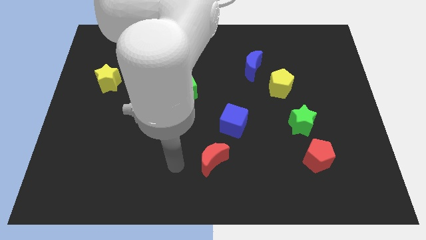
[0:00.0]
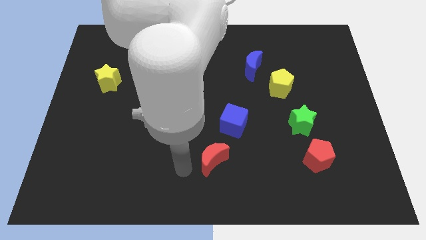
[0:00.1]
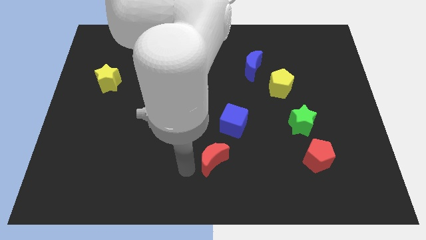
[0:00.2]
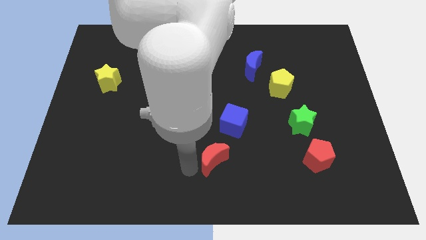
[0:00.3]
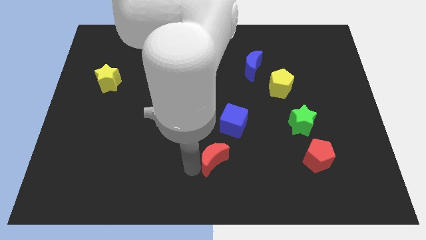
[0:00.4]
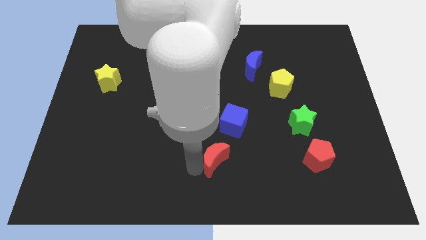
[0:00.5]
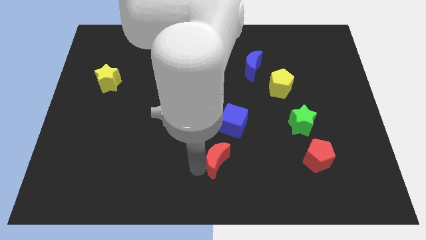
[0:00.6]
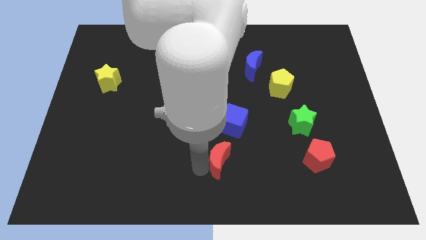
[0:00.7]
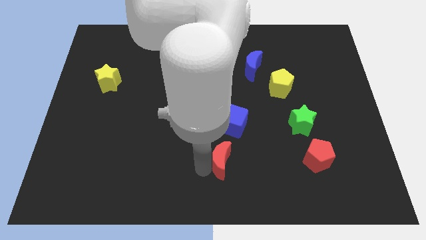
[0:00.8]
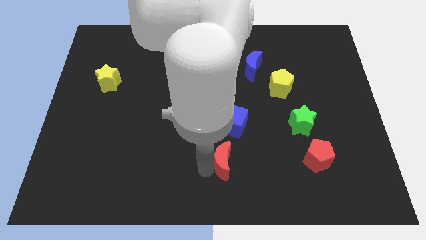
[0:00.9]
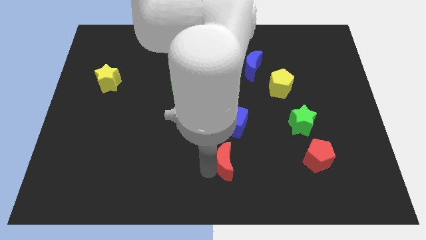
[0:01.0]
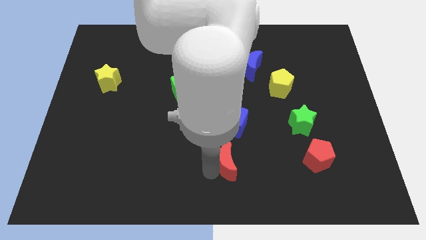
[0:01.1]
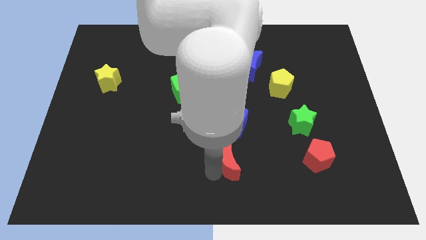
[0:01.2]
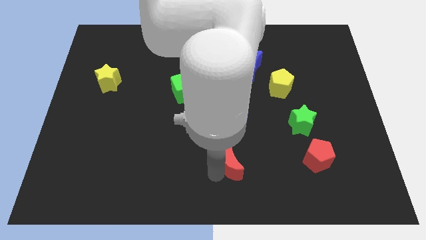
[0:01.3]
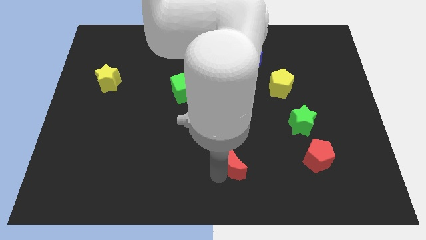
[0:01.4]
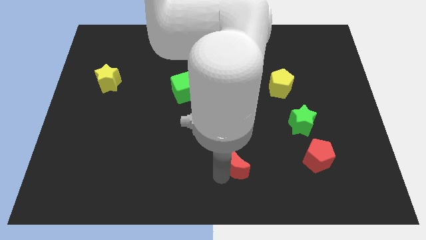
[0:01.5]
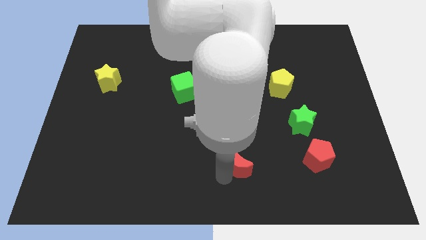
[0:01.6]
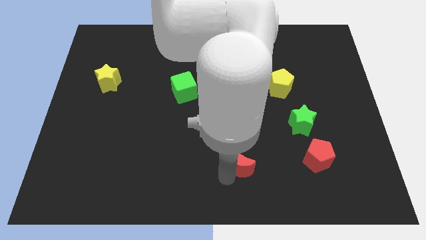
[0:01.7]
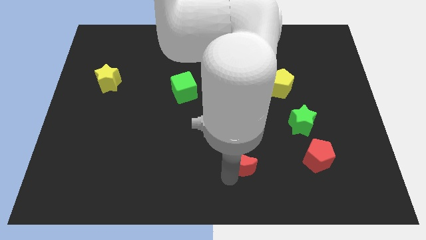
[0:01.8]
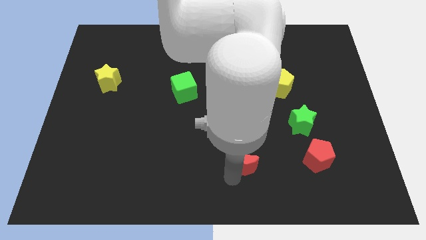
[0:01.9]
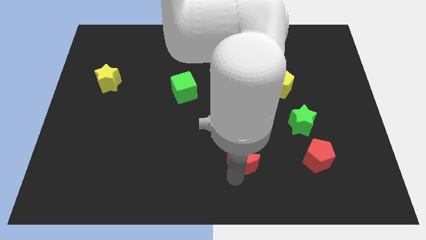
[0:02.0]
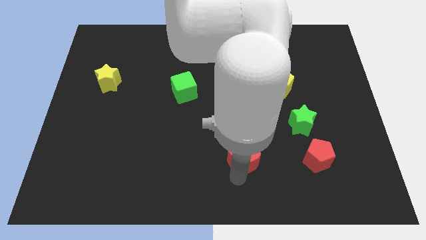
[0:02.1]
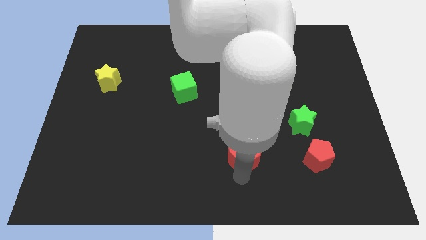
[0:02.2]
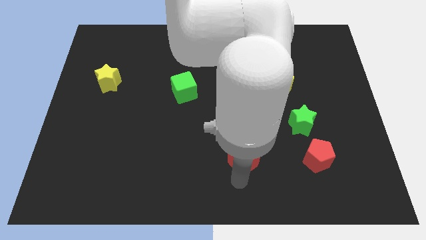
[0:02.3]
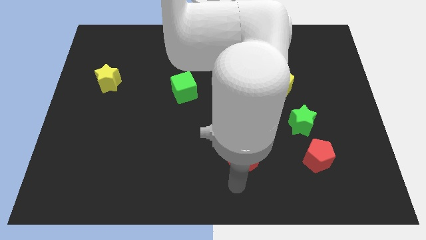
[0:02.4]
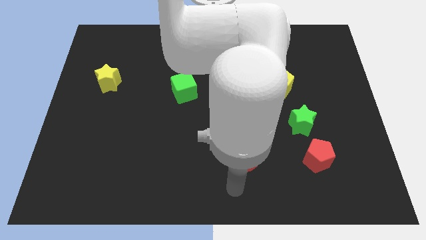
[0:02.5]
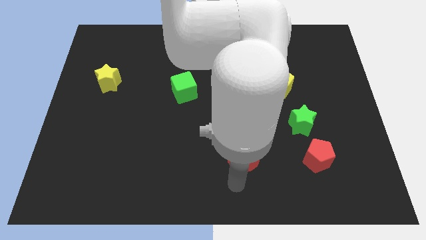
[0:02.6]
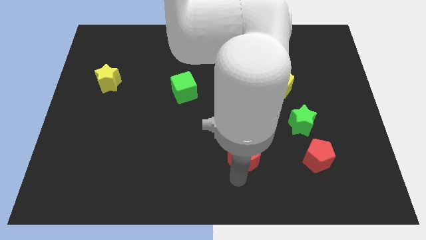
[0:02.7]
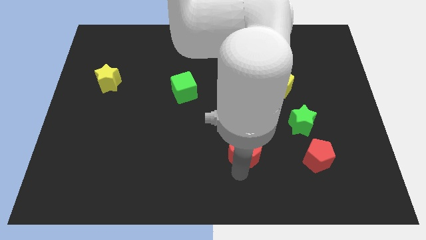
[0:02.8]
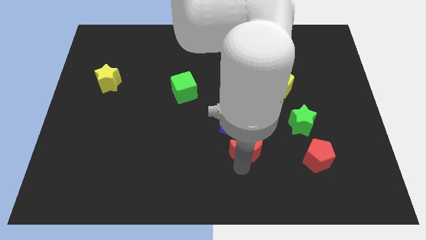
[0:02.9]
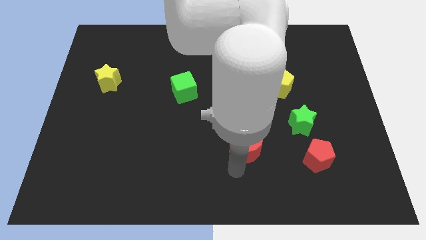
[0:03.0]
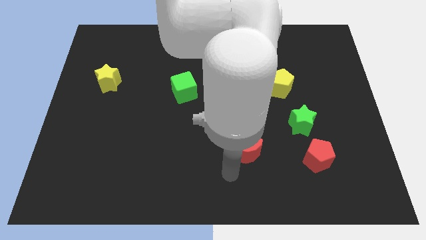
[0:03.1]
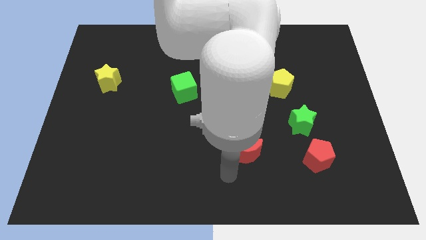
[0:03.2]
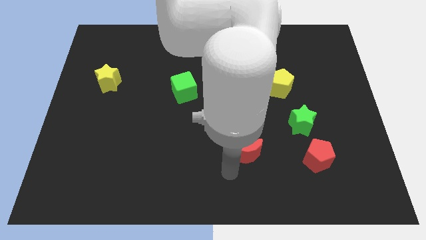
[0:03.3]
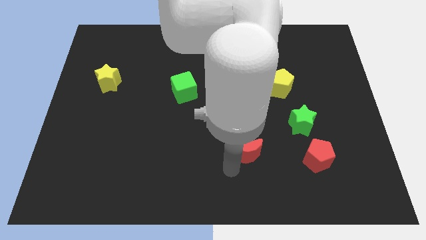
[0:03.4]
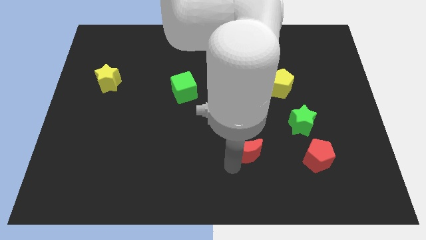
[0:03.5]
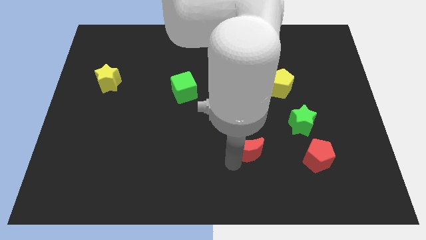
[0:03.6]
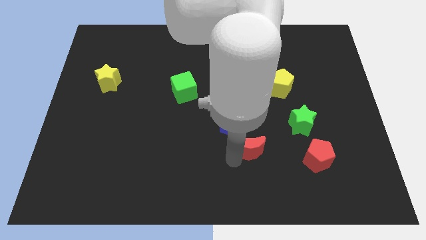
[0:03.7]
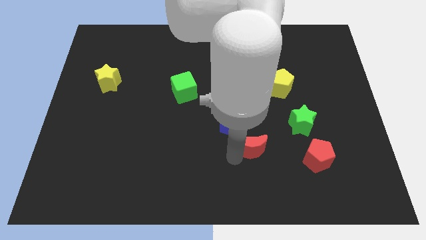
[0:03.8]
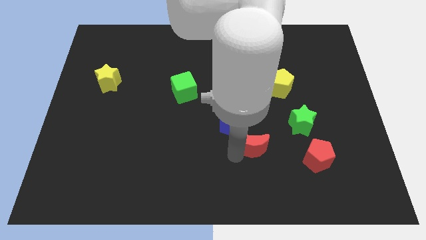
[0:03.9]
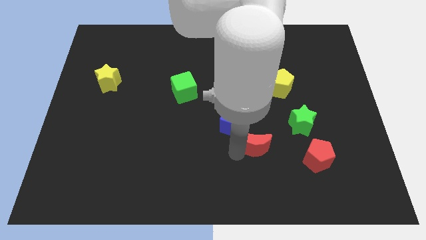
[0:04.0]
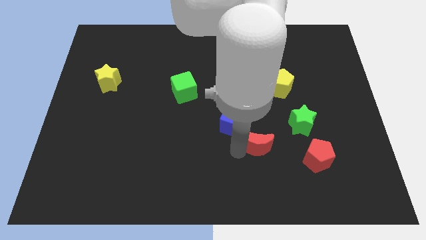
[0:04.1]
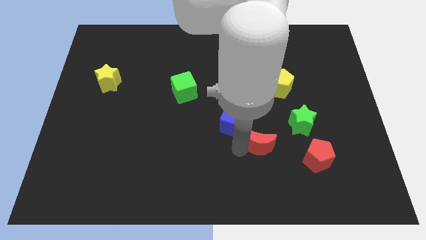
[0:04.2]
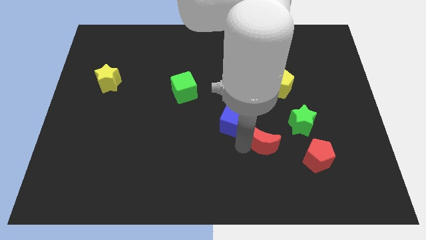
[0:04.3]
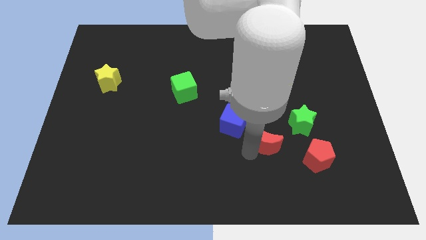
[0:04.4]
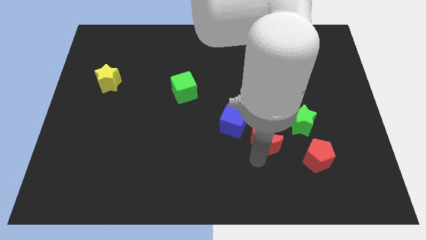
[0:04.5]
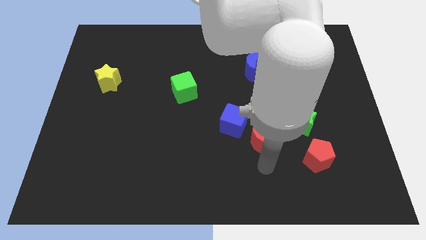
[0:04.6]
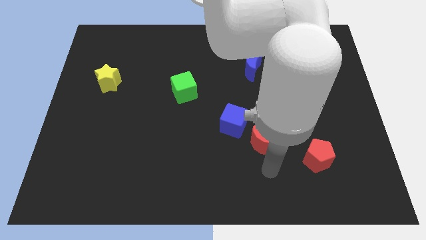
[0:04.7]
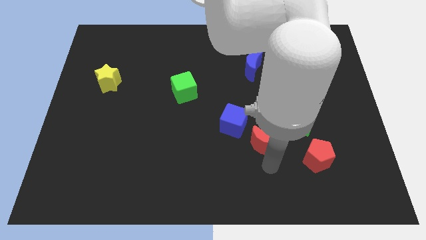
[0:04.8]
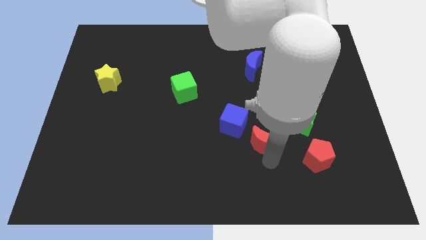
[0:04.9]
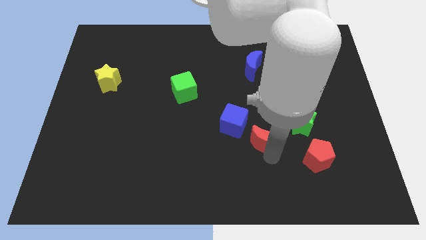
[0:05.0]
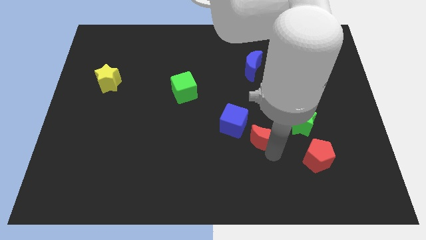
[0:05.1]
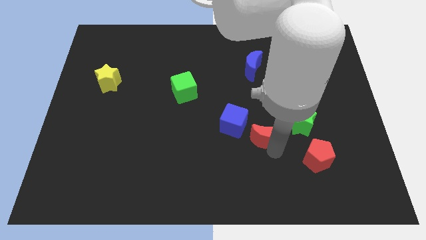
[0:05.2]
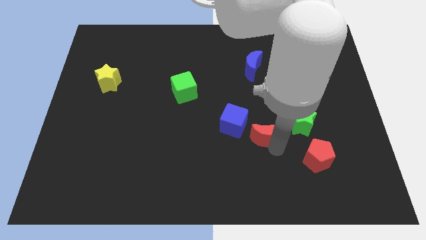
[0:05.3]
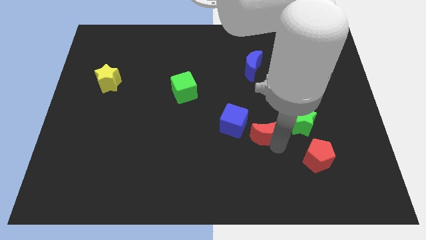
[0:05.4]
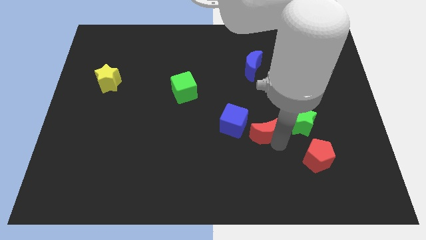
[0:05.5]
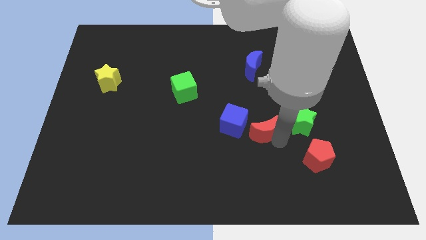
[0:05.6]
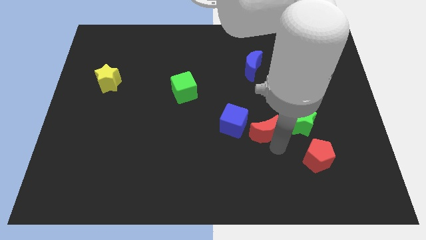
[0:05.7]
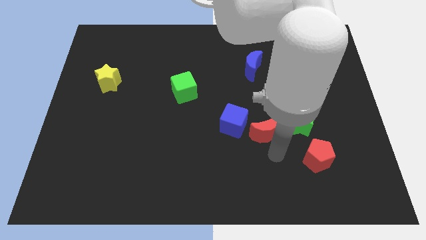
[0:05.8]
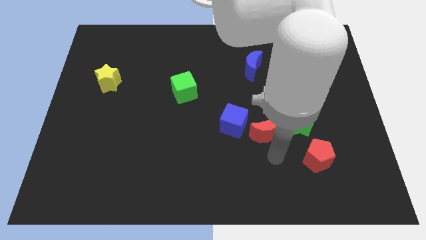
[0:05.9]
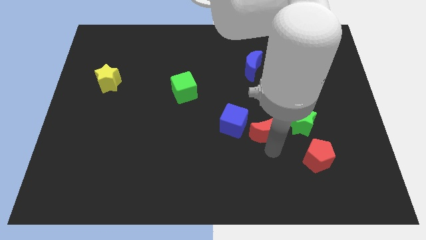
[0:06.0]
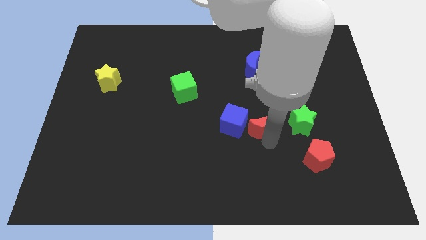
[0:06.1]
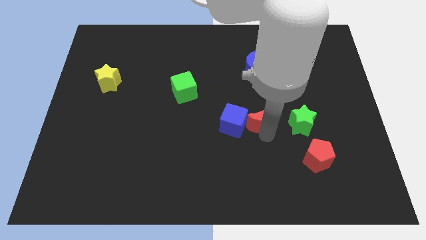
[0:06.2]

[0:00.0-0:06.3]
slide the red moon diagonally up and to the right of the blue cube

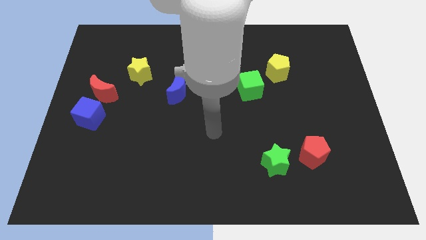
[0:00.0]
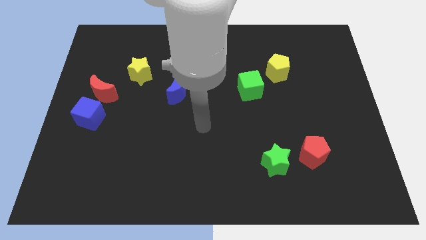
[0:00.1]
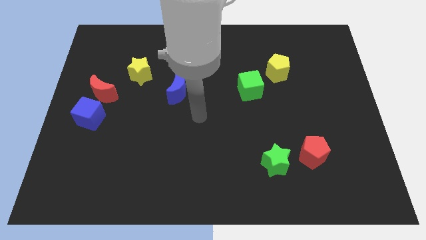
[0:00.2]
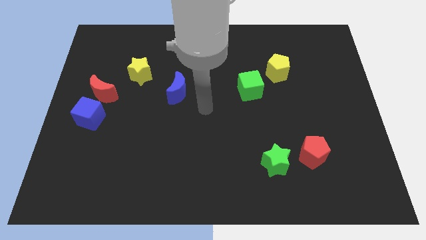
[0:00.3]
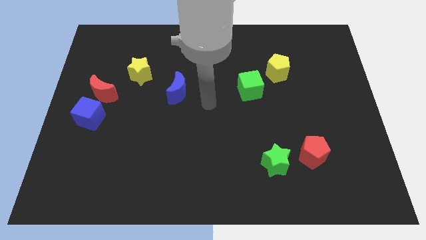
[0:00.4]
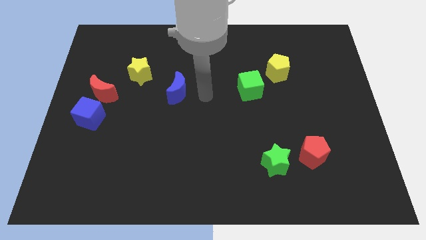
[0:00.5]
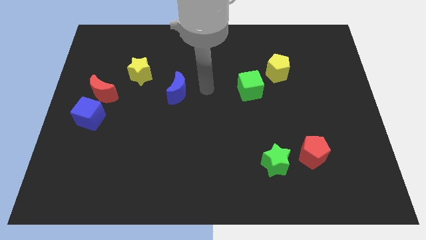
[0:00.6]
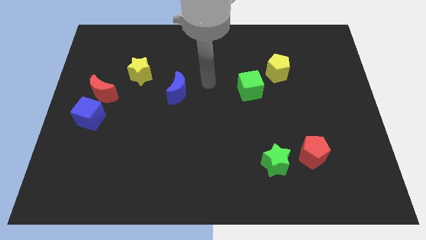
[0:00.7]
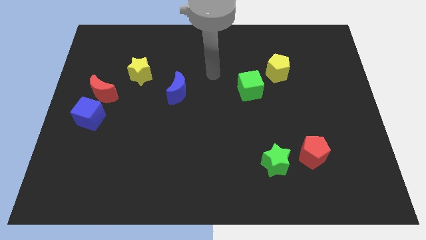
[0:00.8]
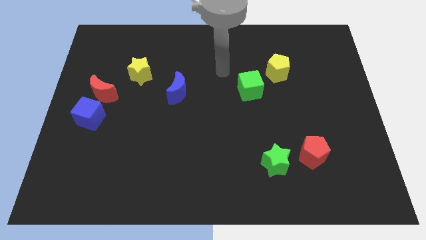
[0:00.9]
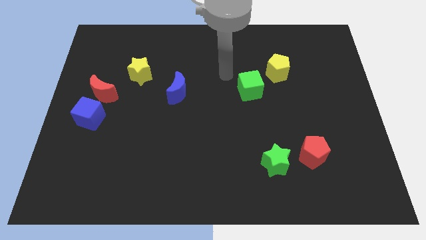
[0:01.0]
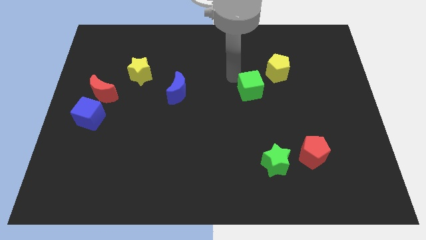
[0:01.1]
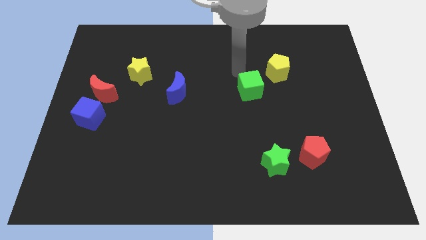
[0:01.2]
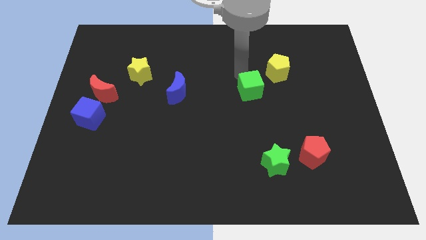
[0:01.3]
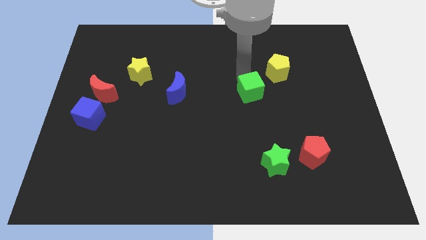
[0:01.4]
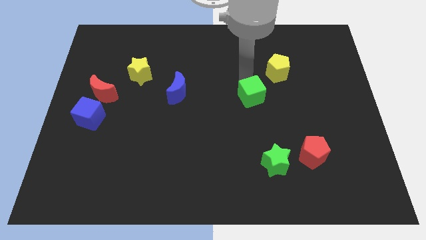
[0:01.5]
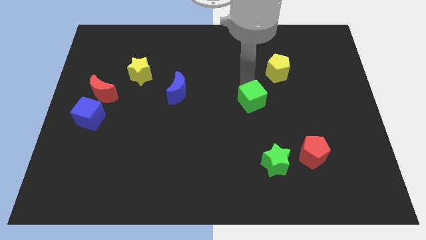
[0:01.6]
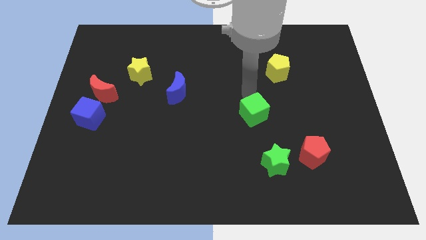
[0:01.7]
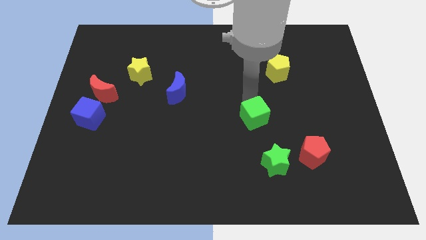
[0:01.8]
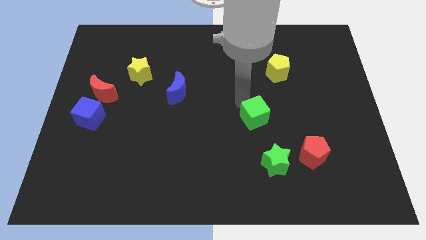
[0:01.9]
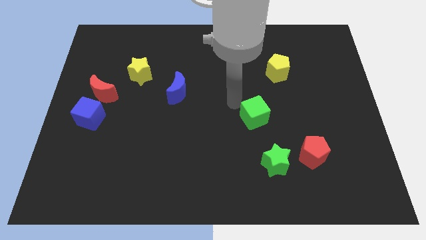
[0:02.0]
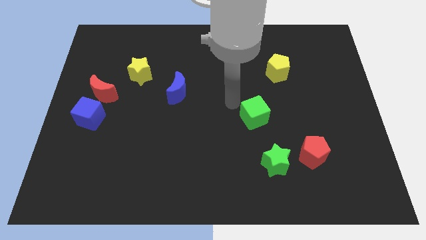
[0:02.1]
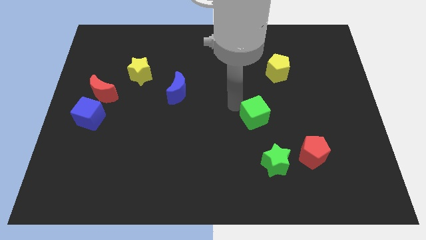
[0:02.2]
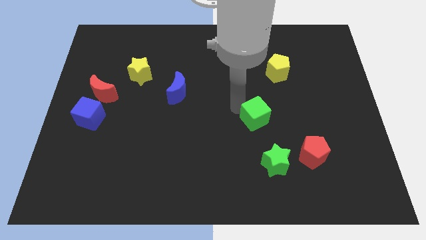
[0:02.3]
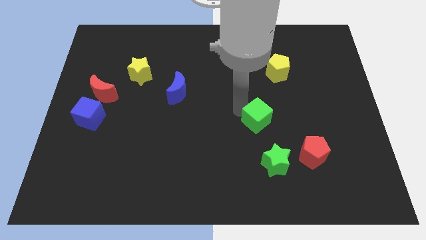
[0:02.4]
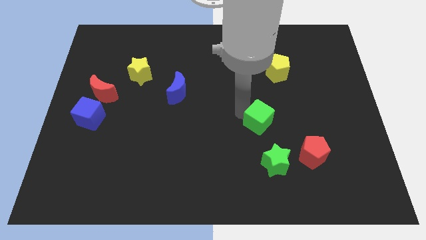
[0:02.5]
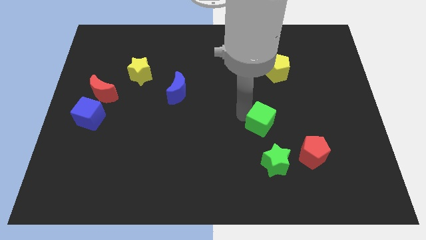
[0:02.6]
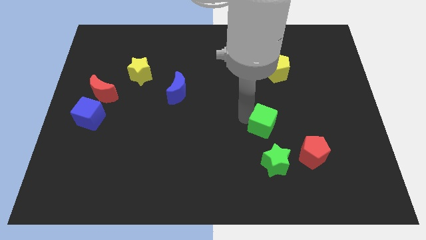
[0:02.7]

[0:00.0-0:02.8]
slide the green cube to the top left of the red pentagon
